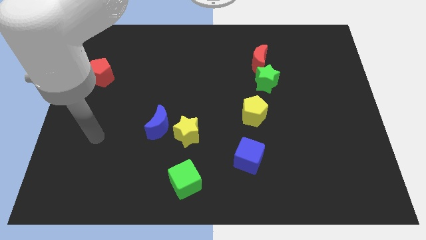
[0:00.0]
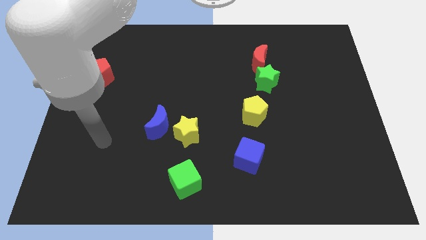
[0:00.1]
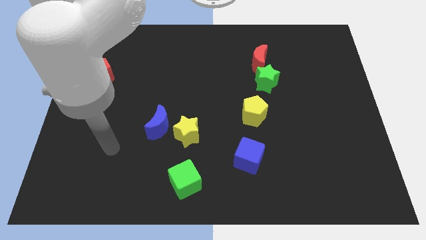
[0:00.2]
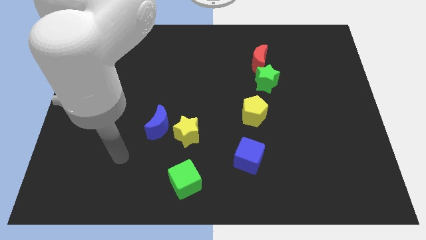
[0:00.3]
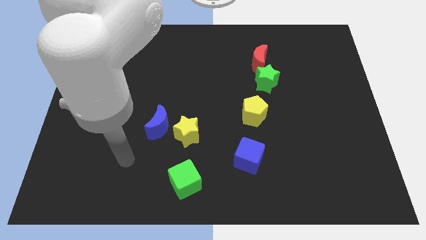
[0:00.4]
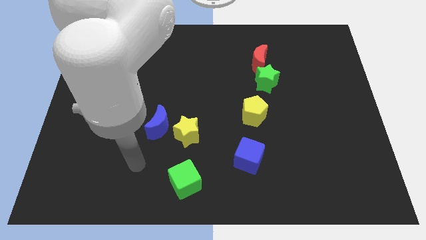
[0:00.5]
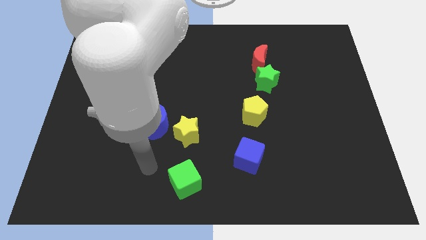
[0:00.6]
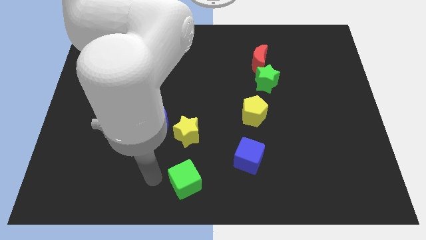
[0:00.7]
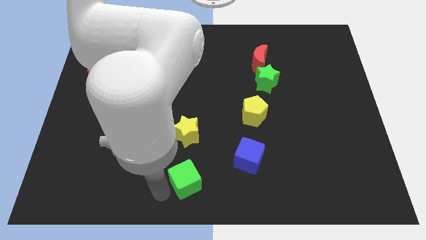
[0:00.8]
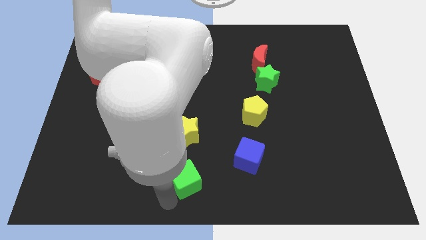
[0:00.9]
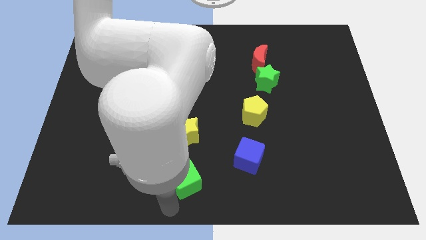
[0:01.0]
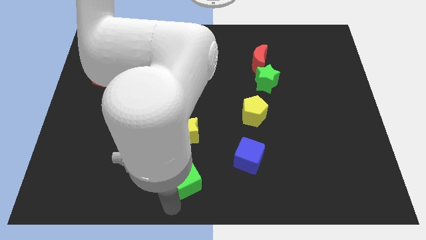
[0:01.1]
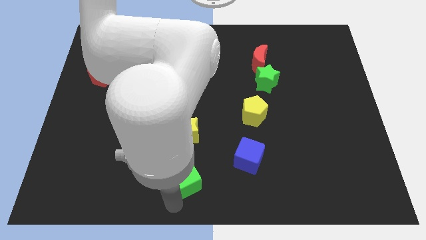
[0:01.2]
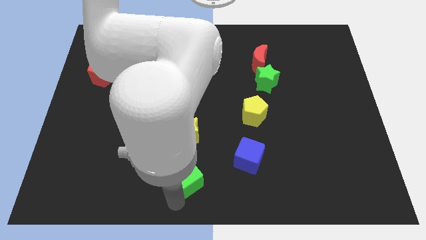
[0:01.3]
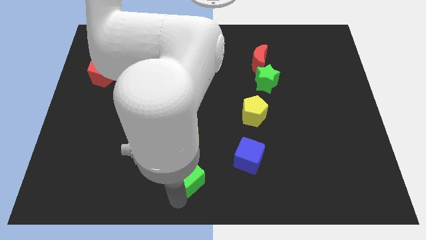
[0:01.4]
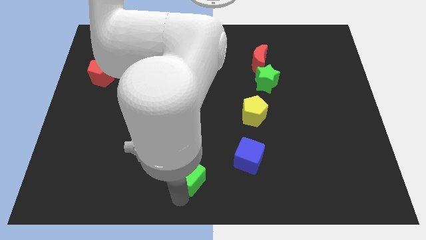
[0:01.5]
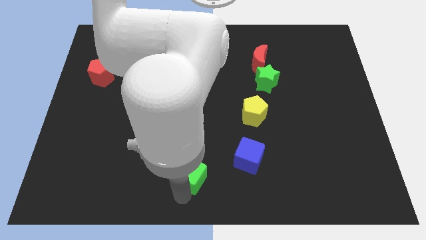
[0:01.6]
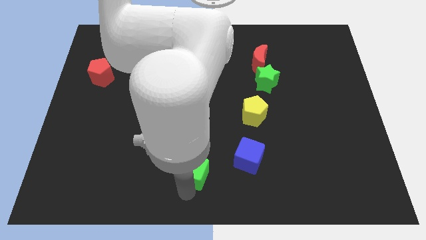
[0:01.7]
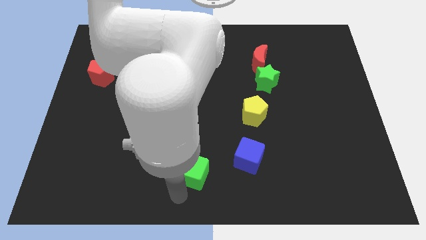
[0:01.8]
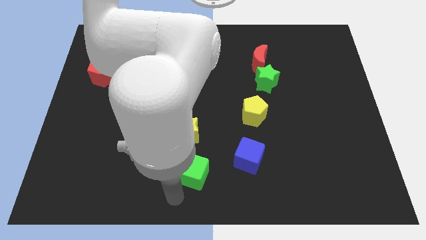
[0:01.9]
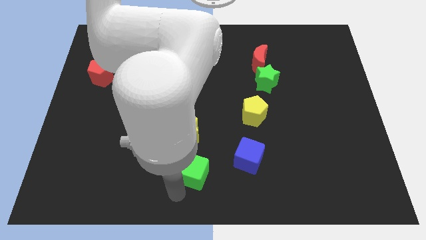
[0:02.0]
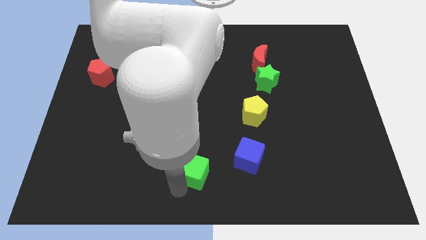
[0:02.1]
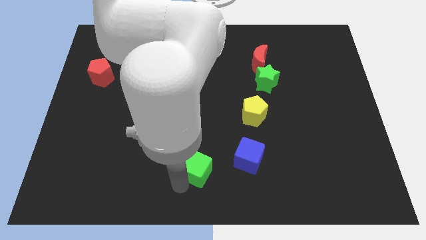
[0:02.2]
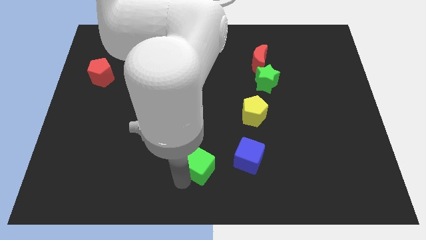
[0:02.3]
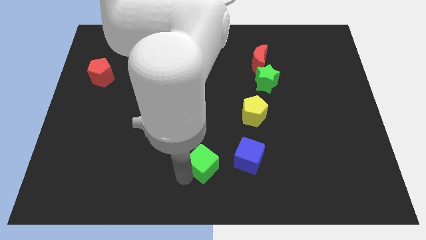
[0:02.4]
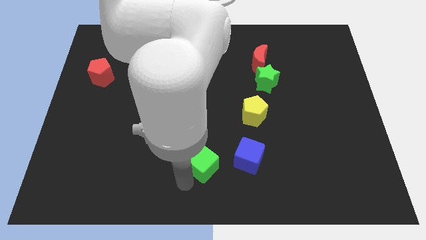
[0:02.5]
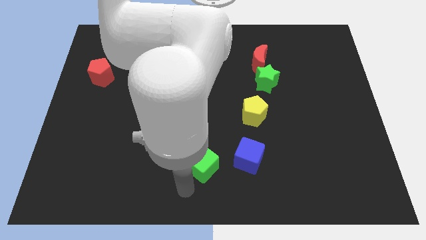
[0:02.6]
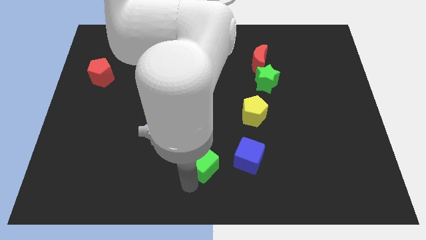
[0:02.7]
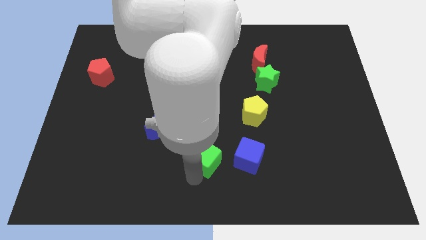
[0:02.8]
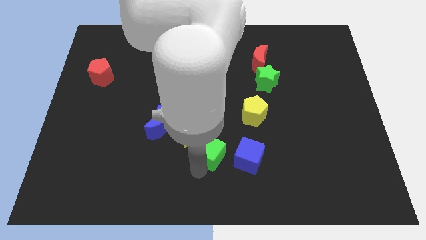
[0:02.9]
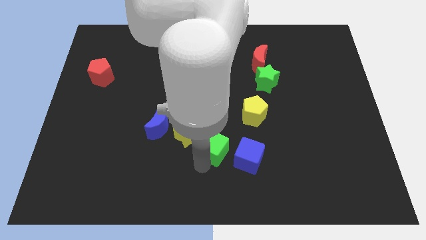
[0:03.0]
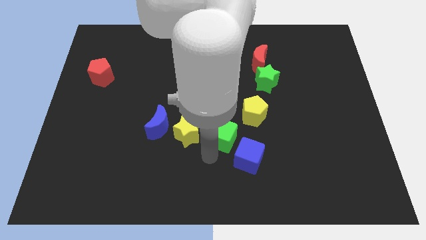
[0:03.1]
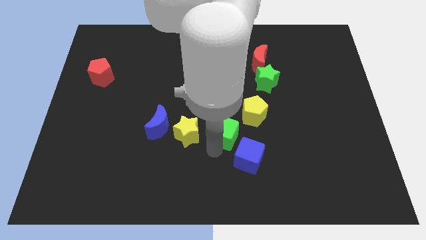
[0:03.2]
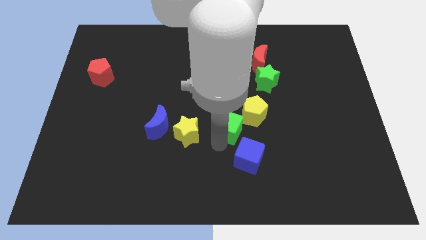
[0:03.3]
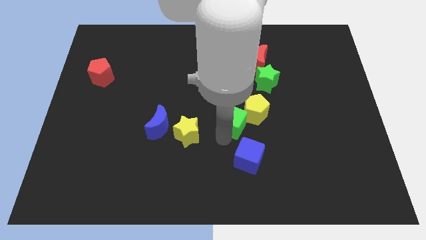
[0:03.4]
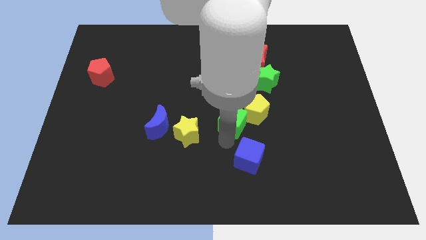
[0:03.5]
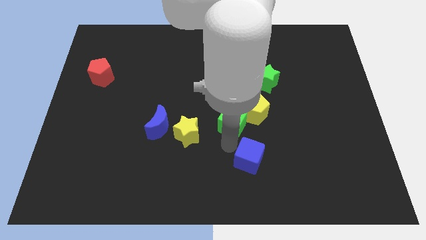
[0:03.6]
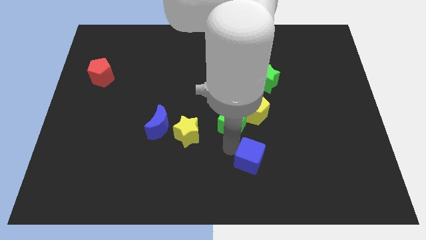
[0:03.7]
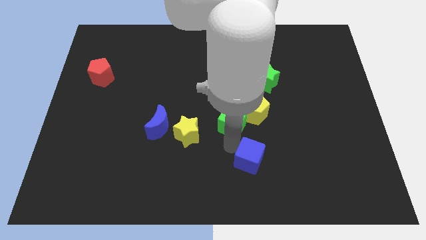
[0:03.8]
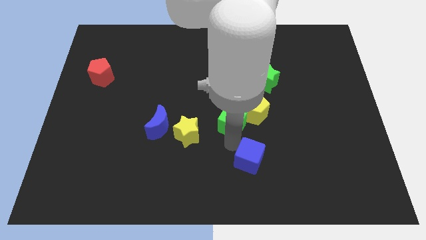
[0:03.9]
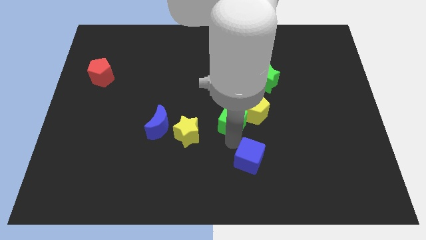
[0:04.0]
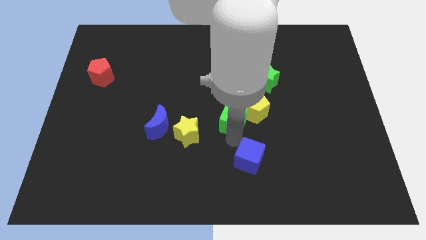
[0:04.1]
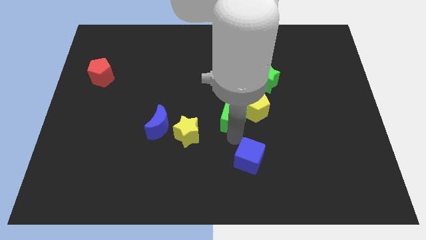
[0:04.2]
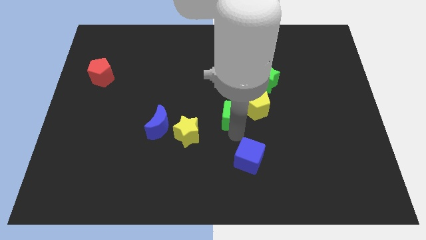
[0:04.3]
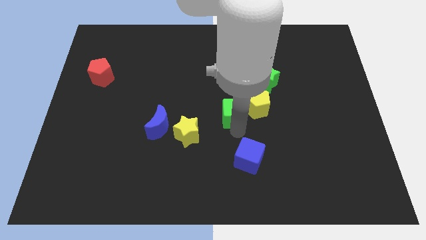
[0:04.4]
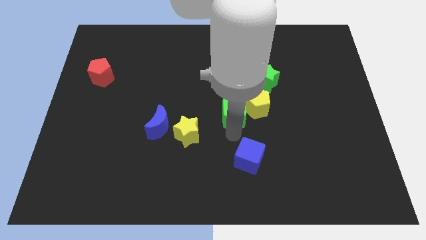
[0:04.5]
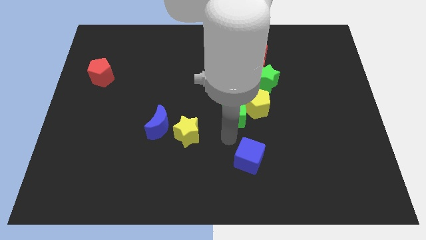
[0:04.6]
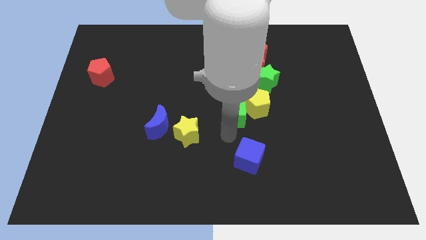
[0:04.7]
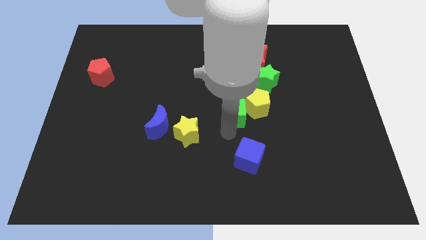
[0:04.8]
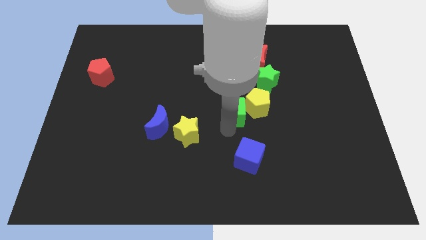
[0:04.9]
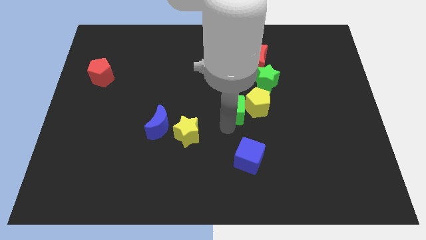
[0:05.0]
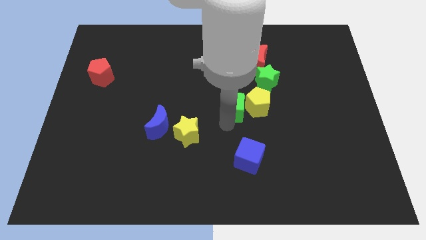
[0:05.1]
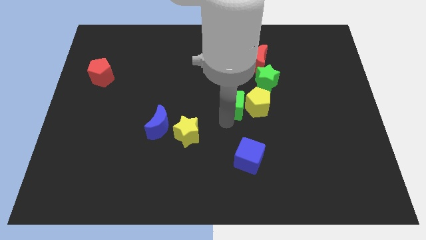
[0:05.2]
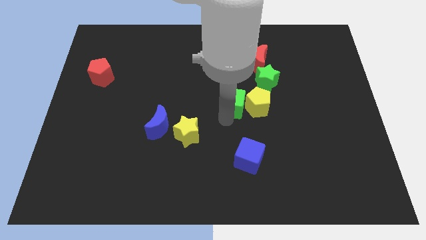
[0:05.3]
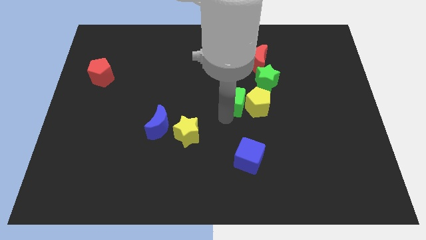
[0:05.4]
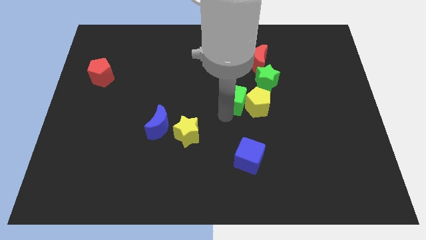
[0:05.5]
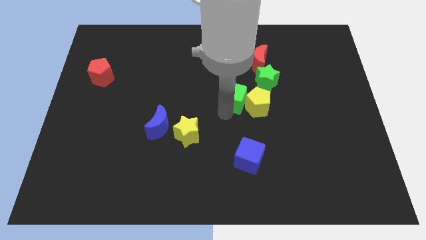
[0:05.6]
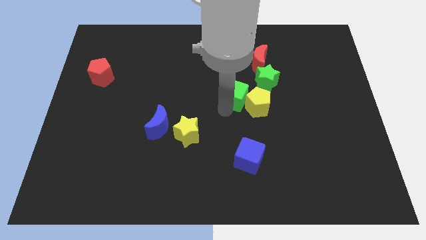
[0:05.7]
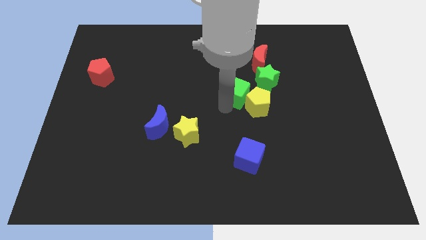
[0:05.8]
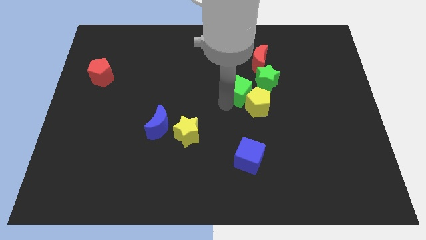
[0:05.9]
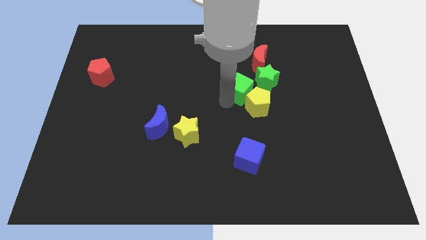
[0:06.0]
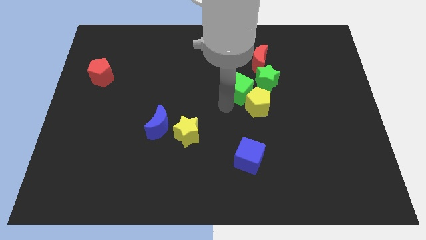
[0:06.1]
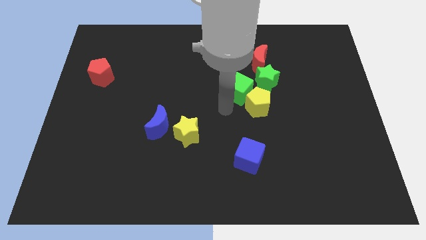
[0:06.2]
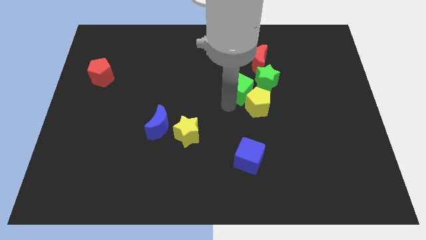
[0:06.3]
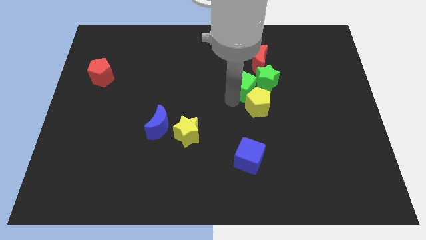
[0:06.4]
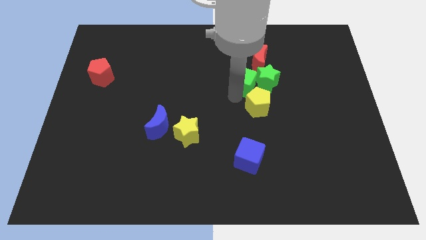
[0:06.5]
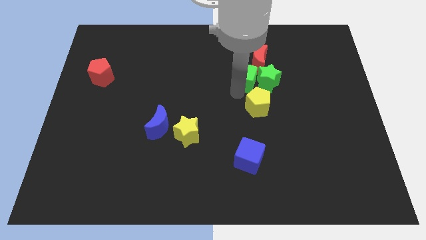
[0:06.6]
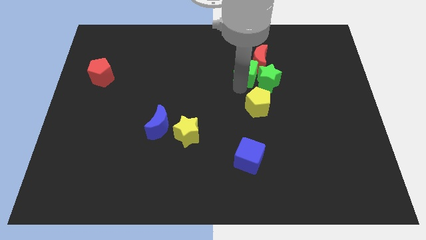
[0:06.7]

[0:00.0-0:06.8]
move the green cube next to the red moon

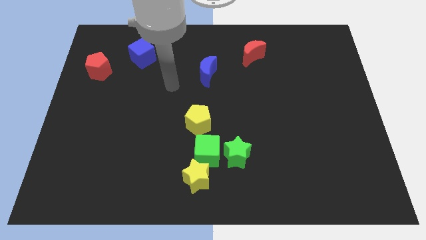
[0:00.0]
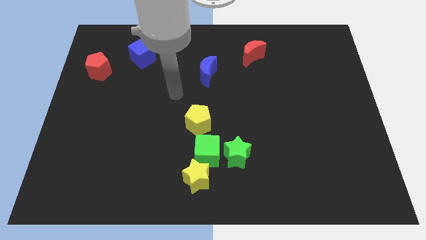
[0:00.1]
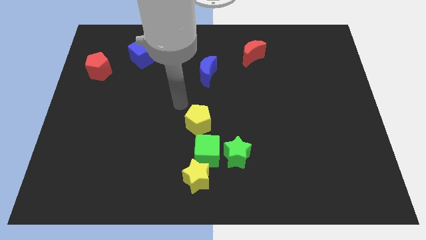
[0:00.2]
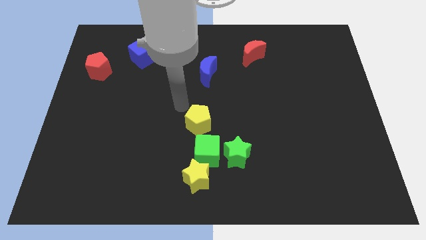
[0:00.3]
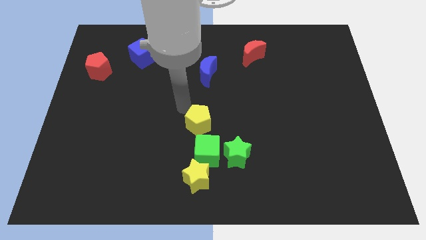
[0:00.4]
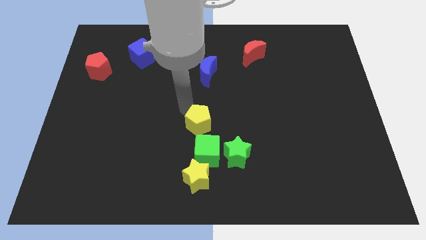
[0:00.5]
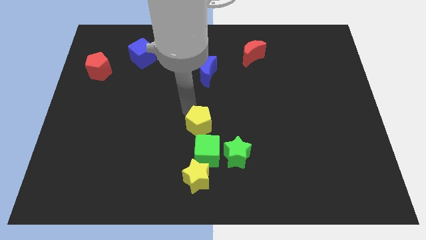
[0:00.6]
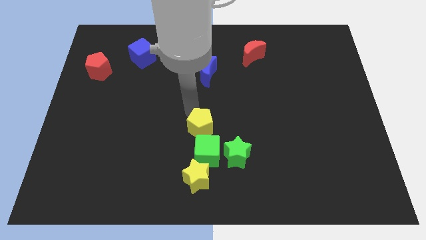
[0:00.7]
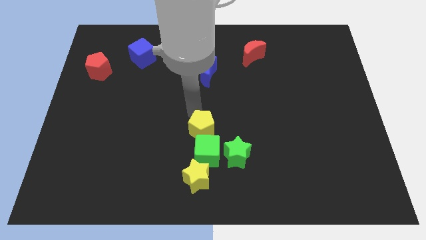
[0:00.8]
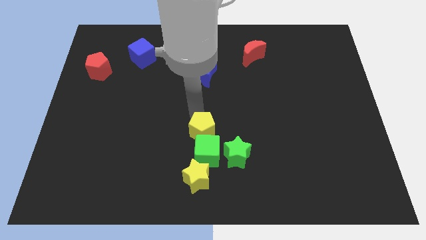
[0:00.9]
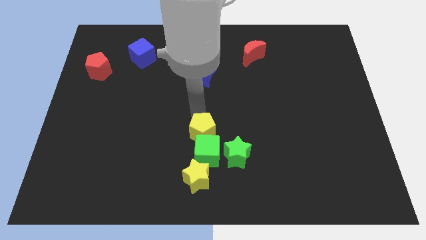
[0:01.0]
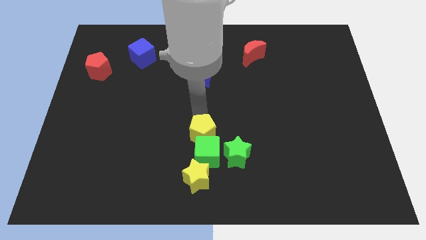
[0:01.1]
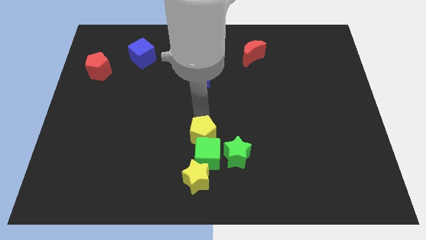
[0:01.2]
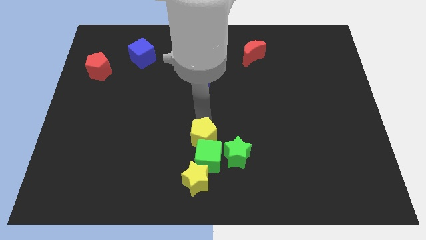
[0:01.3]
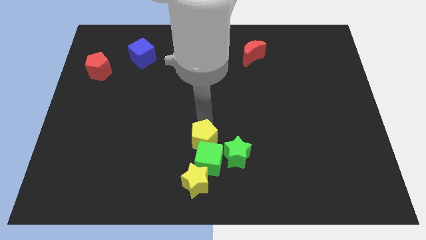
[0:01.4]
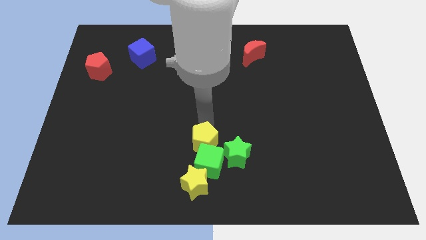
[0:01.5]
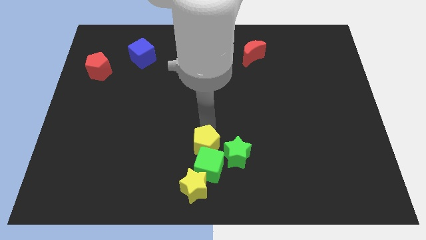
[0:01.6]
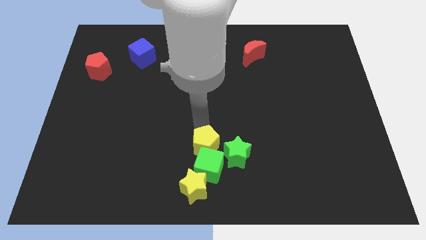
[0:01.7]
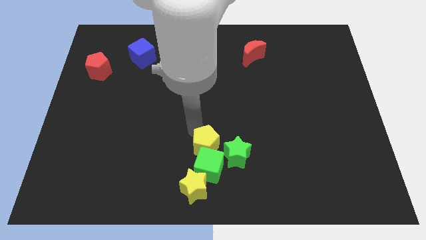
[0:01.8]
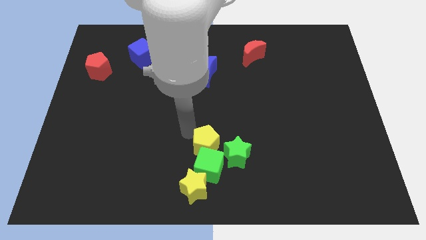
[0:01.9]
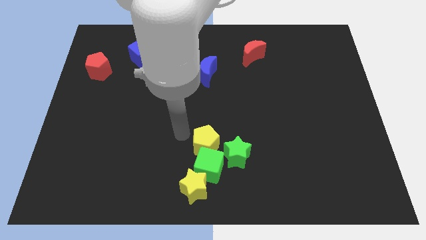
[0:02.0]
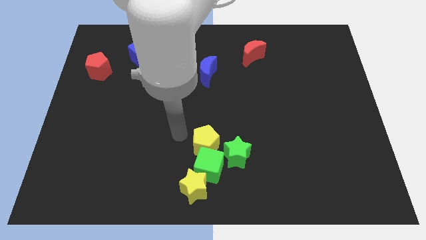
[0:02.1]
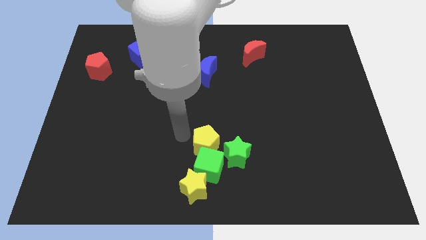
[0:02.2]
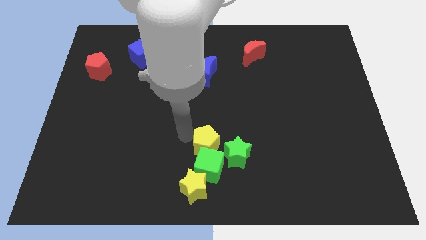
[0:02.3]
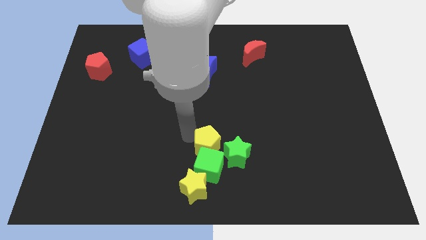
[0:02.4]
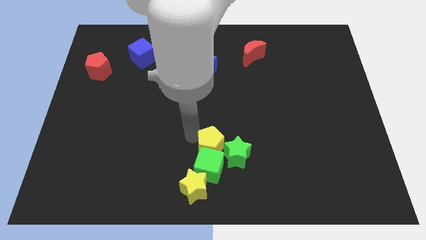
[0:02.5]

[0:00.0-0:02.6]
put the yellow pentagon close to the green star
